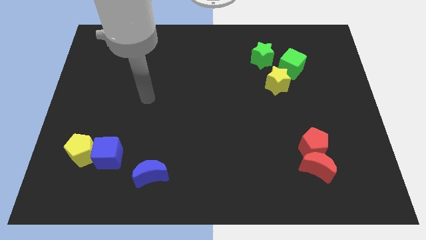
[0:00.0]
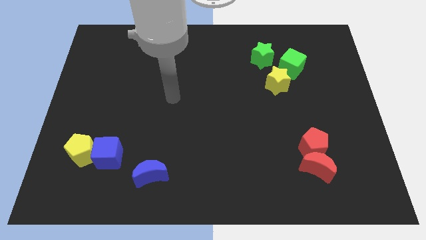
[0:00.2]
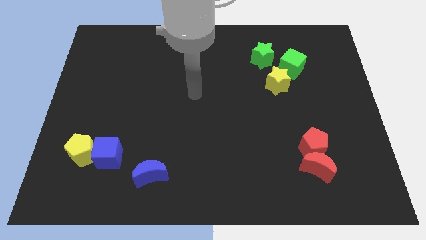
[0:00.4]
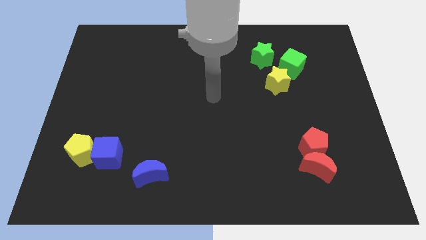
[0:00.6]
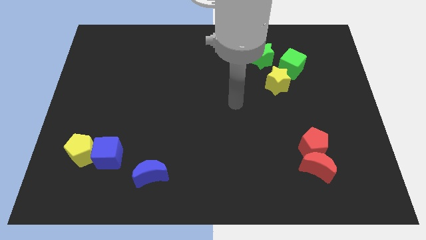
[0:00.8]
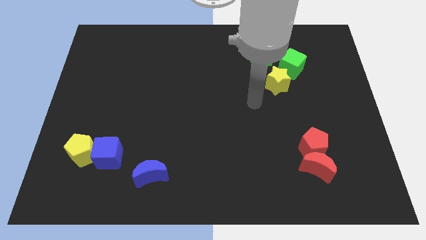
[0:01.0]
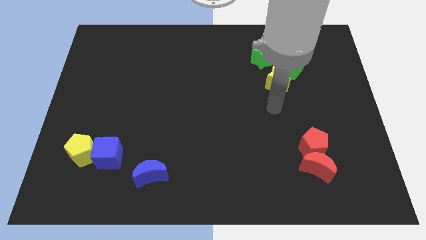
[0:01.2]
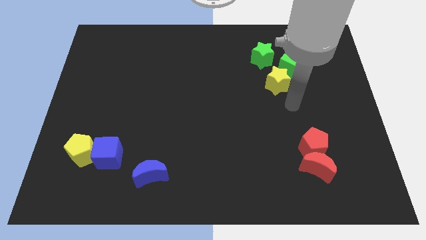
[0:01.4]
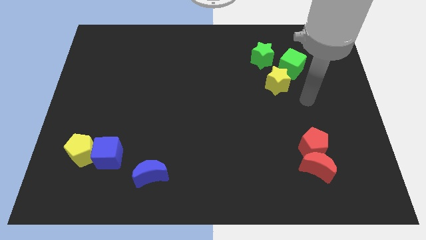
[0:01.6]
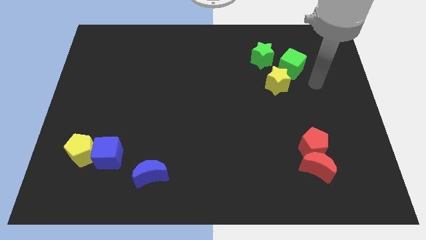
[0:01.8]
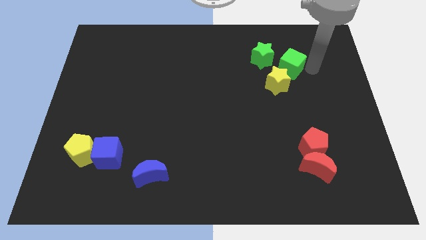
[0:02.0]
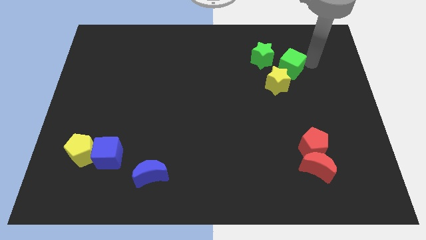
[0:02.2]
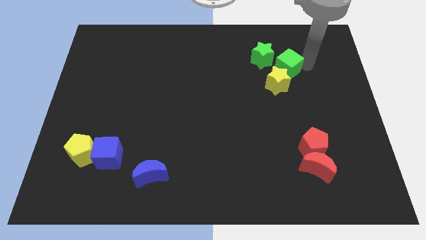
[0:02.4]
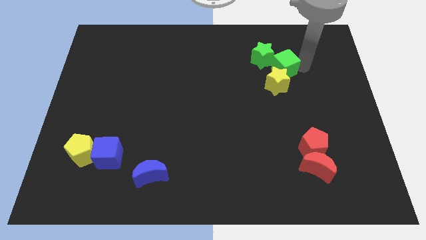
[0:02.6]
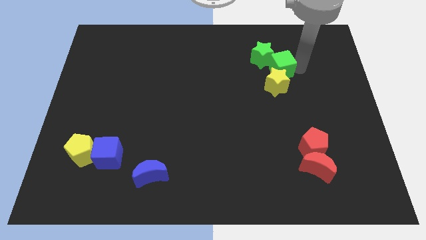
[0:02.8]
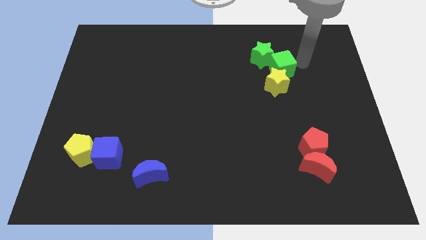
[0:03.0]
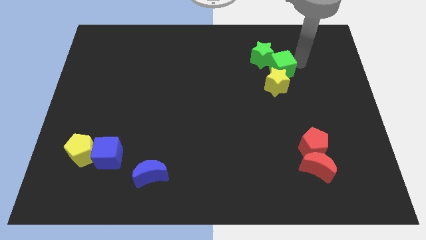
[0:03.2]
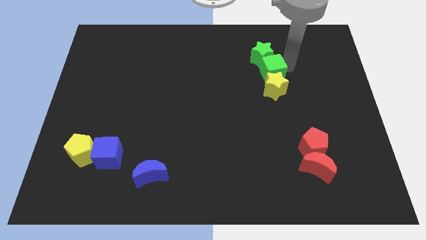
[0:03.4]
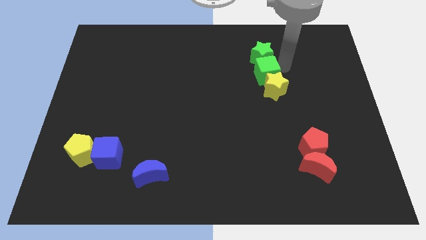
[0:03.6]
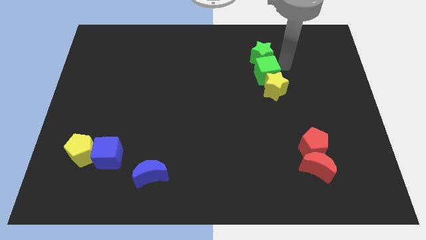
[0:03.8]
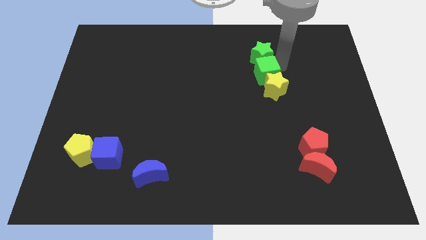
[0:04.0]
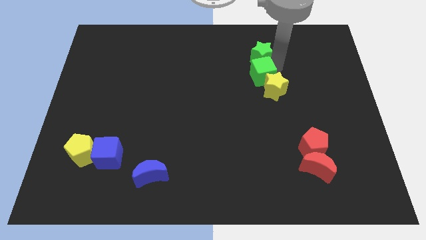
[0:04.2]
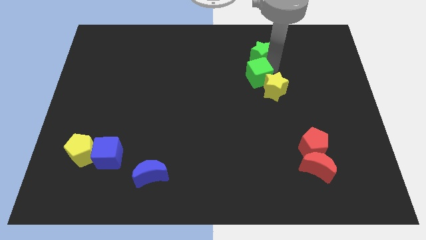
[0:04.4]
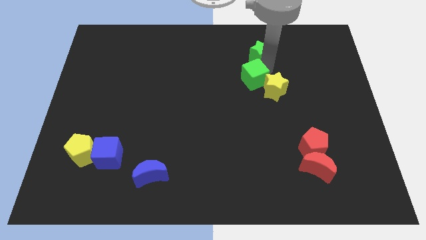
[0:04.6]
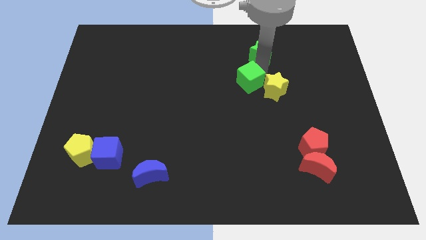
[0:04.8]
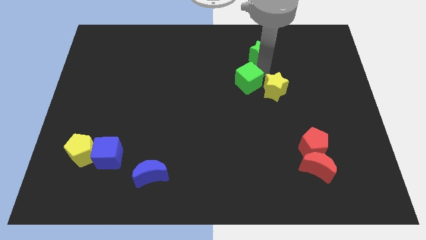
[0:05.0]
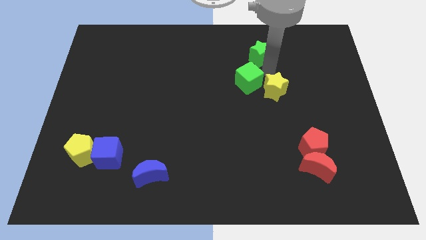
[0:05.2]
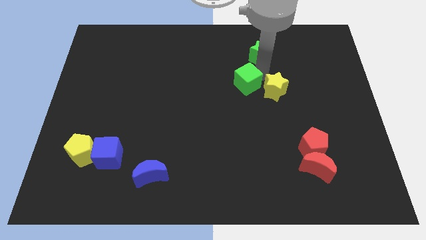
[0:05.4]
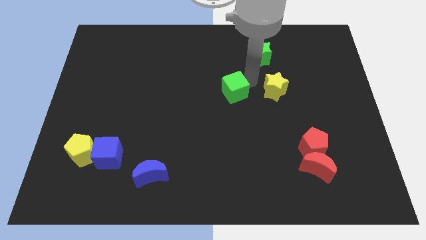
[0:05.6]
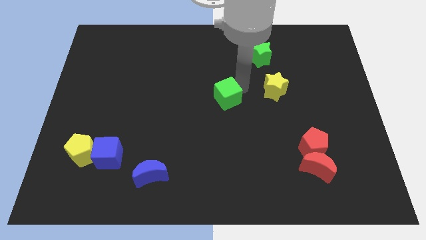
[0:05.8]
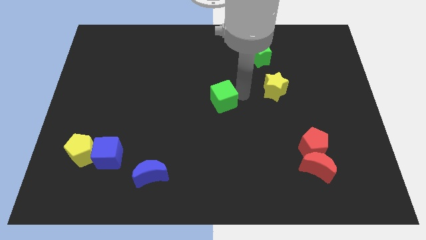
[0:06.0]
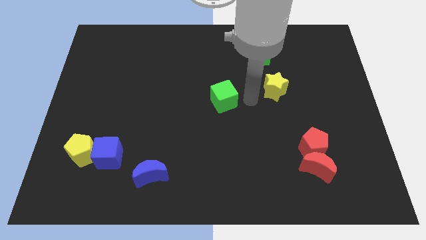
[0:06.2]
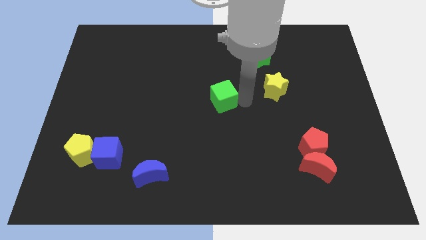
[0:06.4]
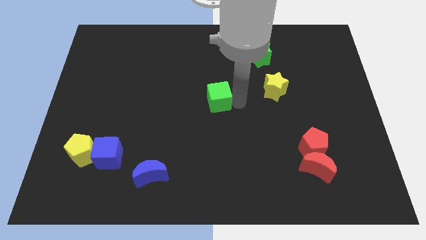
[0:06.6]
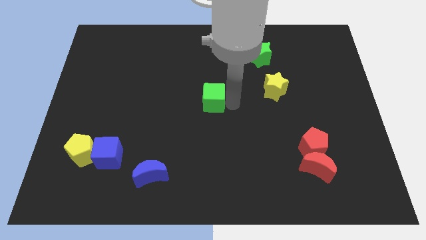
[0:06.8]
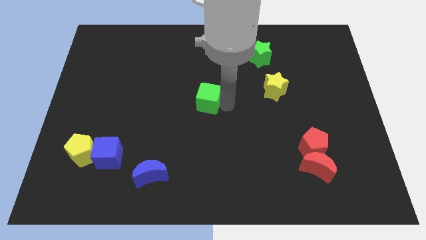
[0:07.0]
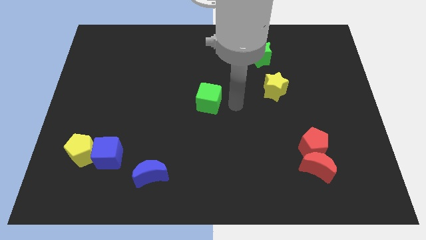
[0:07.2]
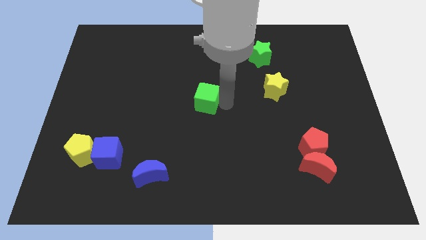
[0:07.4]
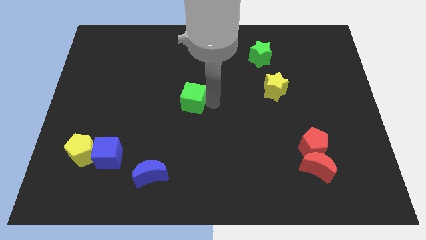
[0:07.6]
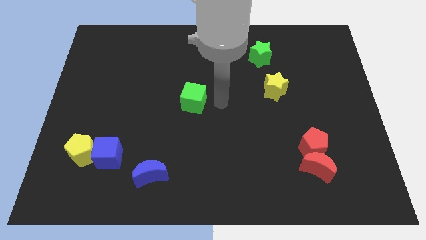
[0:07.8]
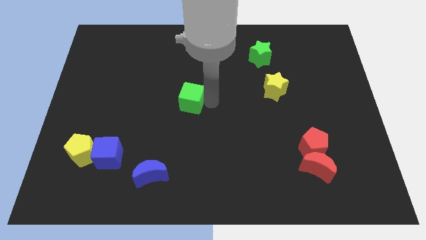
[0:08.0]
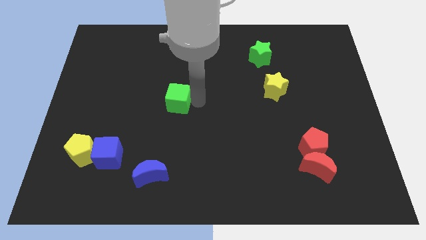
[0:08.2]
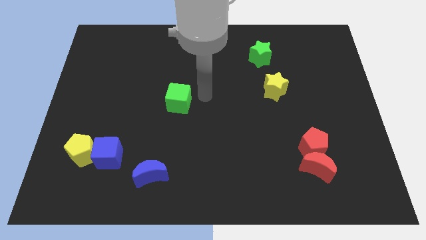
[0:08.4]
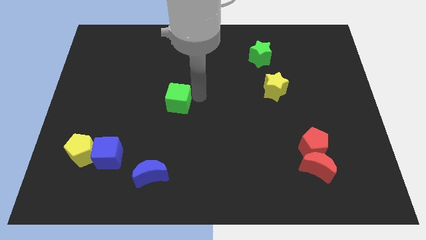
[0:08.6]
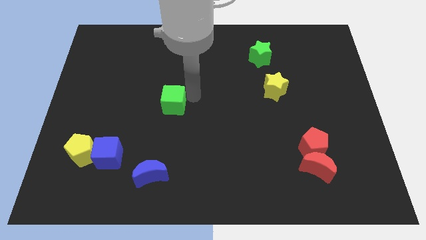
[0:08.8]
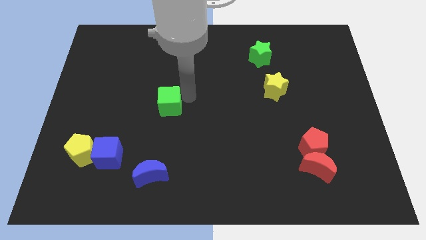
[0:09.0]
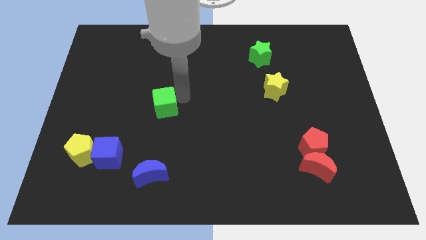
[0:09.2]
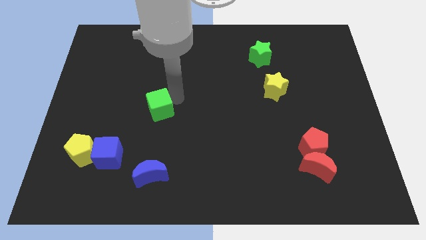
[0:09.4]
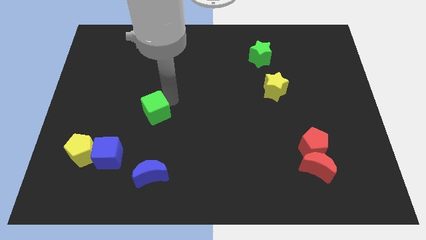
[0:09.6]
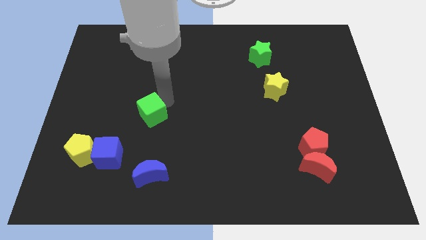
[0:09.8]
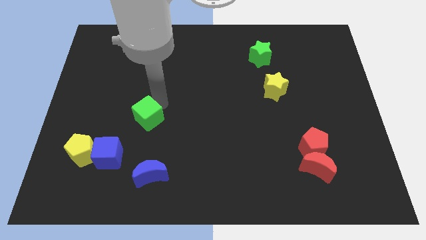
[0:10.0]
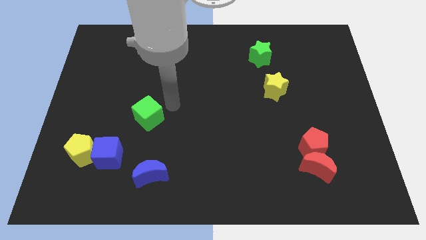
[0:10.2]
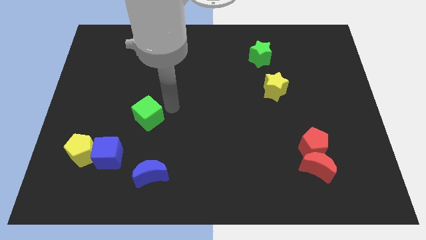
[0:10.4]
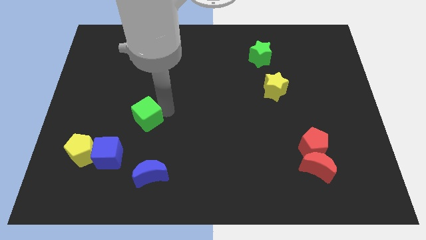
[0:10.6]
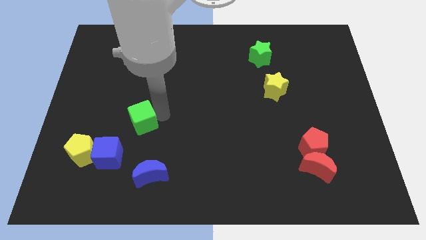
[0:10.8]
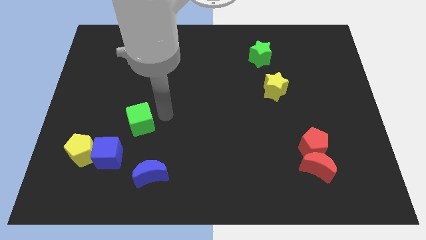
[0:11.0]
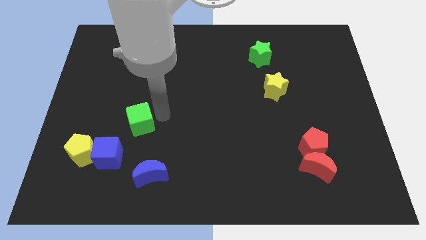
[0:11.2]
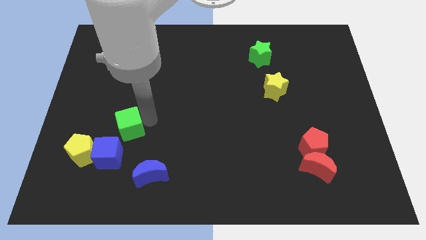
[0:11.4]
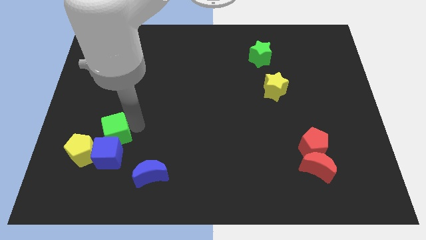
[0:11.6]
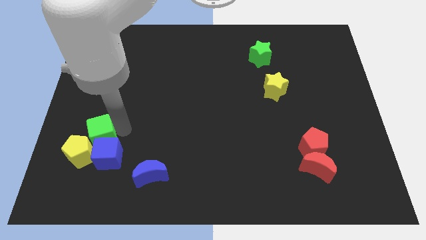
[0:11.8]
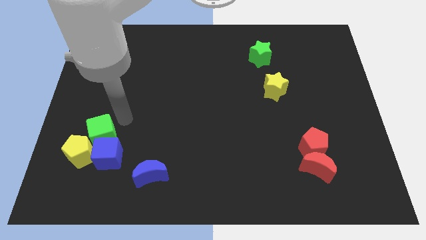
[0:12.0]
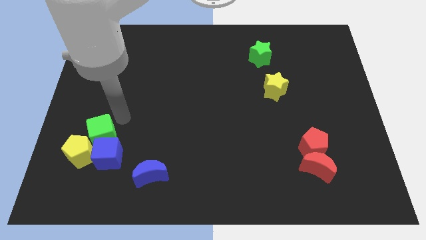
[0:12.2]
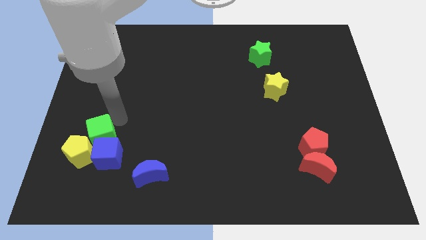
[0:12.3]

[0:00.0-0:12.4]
push the green cube towards the yellow pentagon

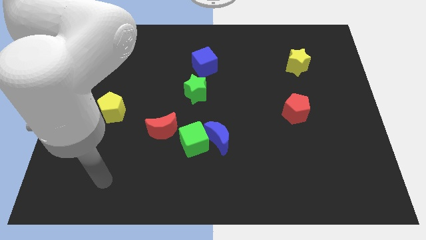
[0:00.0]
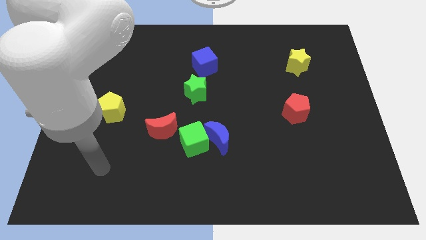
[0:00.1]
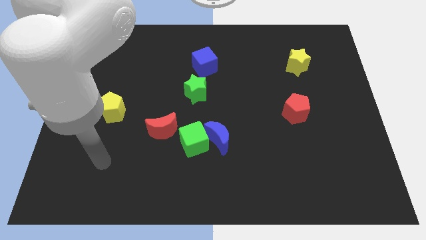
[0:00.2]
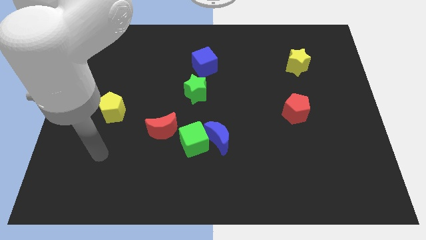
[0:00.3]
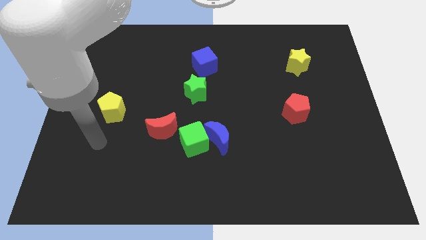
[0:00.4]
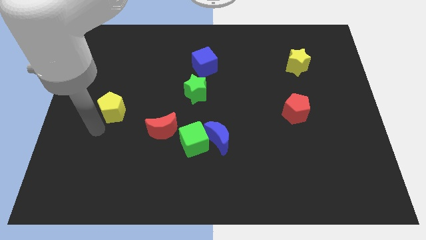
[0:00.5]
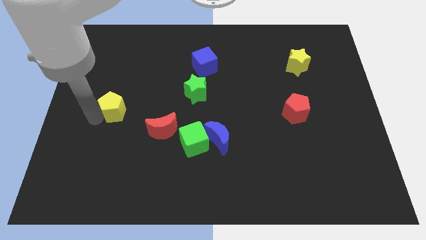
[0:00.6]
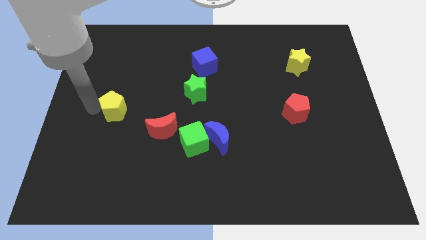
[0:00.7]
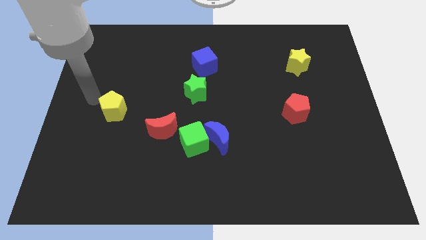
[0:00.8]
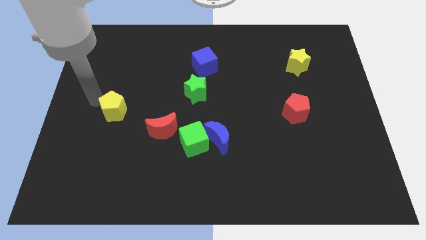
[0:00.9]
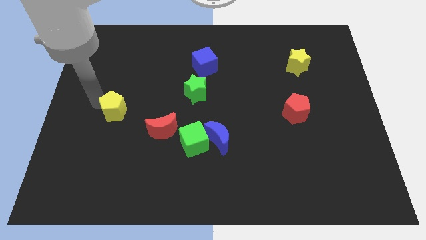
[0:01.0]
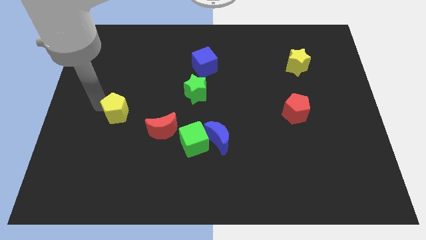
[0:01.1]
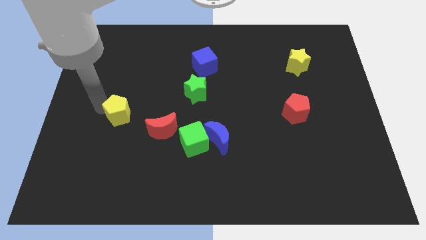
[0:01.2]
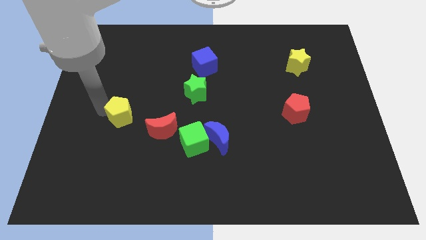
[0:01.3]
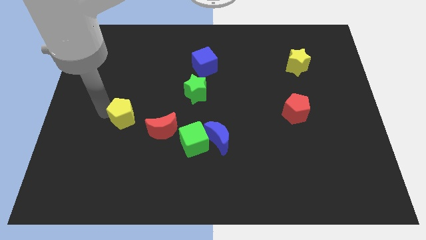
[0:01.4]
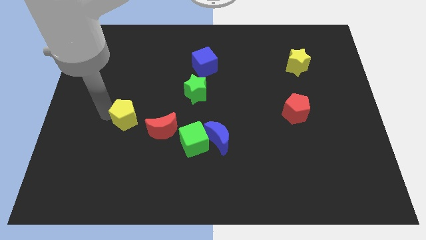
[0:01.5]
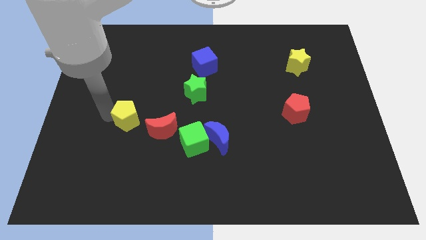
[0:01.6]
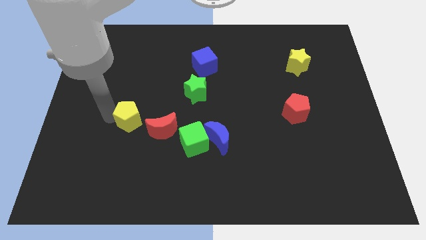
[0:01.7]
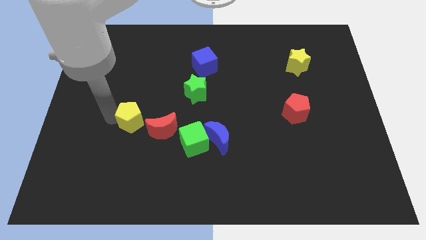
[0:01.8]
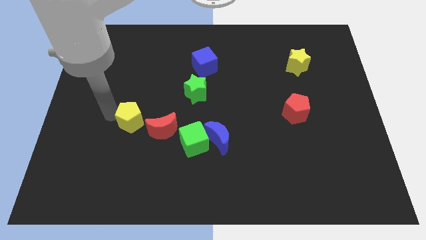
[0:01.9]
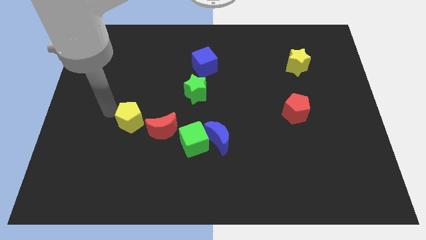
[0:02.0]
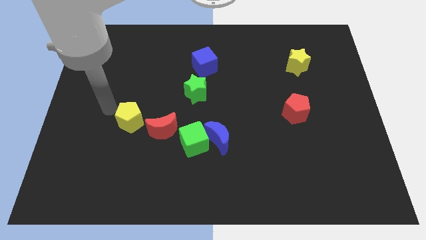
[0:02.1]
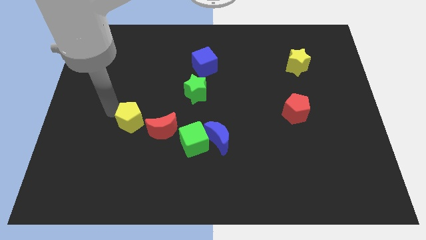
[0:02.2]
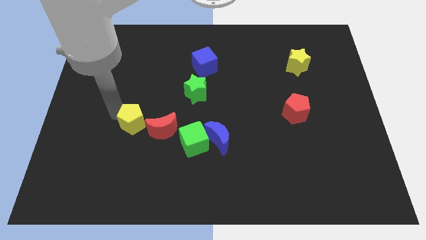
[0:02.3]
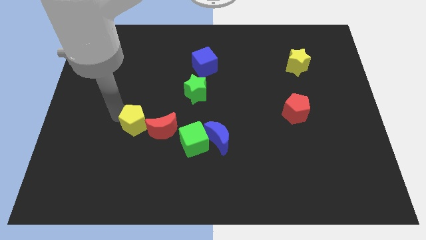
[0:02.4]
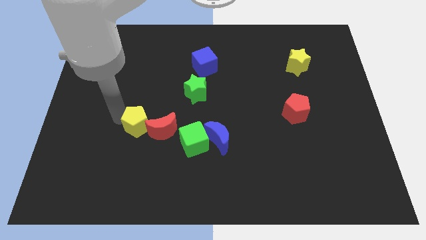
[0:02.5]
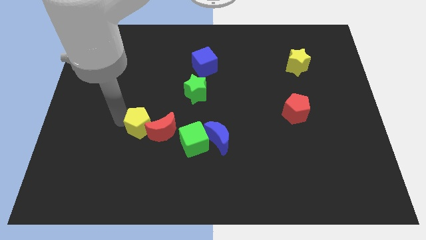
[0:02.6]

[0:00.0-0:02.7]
slide the yellow pentagon next to the red moon
